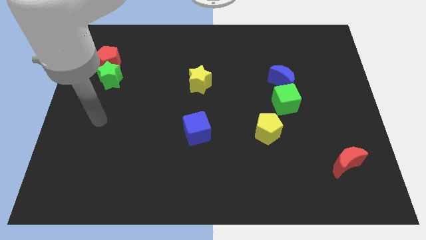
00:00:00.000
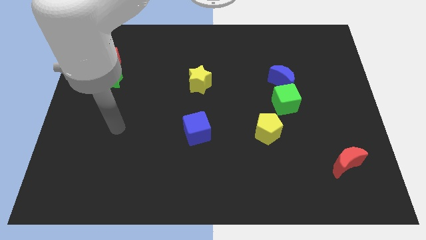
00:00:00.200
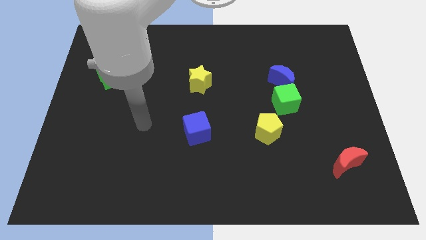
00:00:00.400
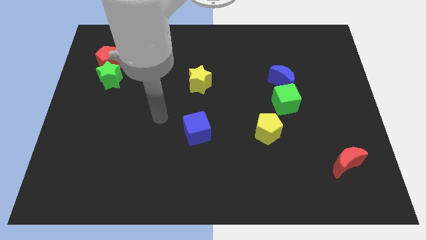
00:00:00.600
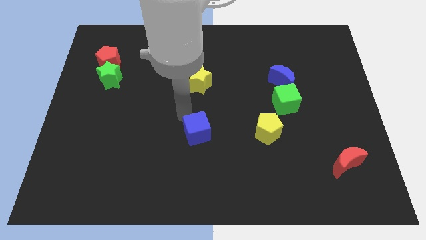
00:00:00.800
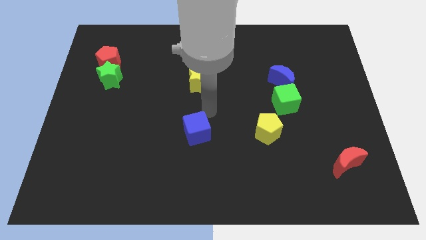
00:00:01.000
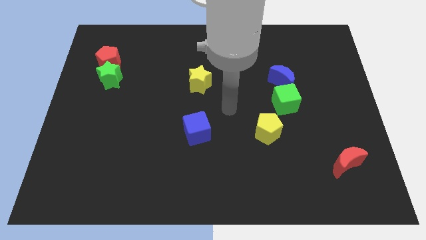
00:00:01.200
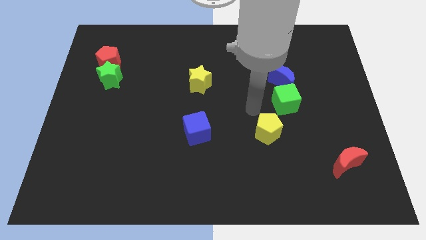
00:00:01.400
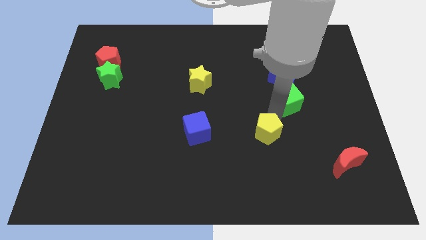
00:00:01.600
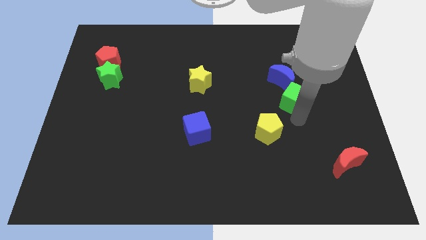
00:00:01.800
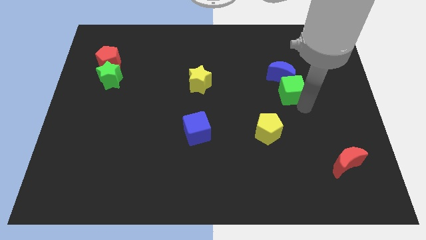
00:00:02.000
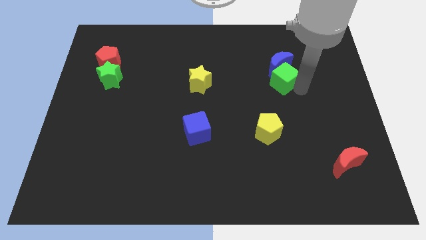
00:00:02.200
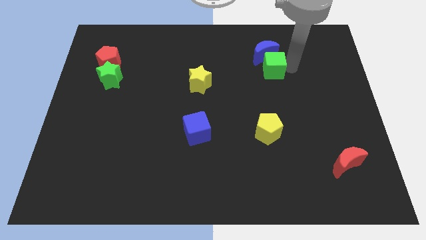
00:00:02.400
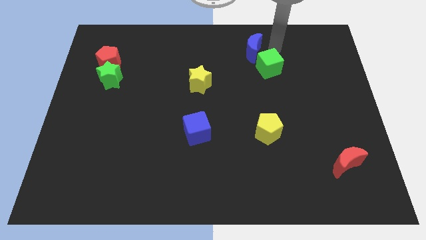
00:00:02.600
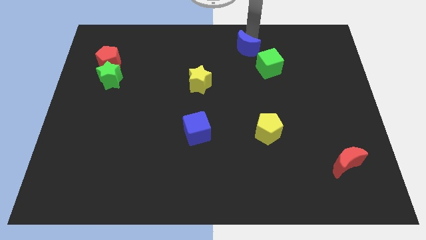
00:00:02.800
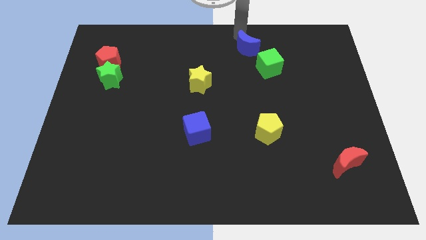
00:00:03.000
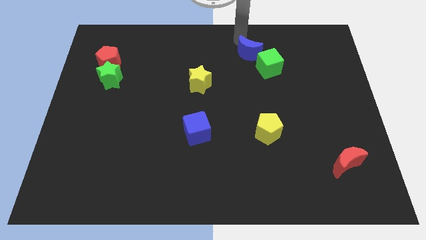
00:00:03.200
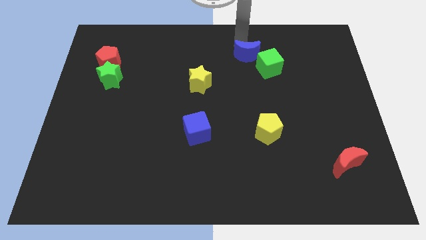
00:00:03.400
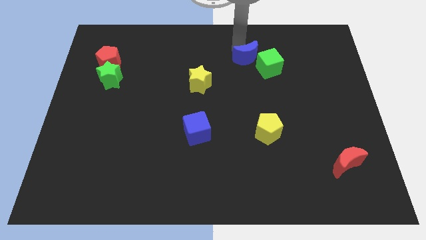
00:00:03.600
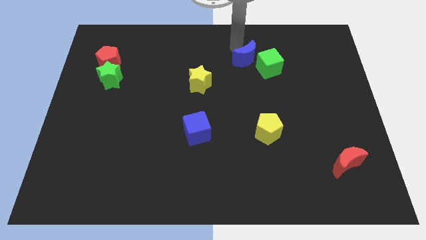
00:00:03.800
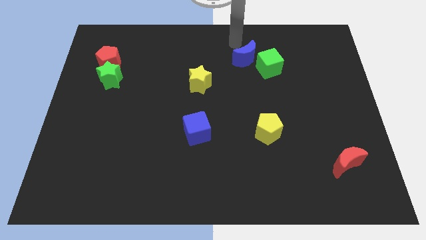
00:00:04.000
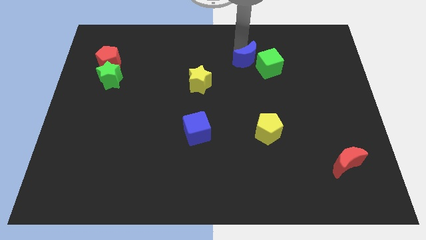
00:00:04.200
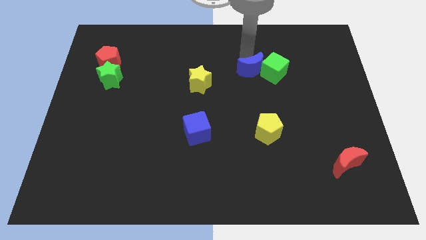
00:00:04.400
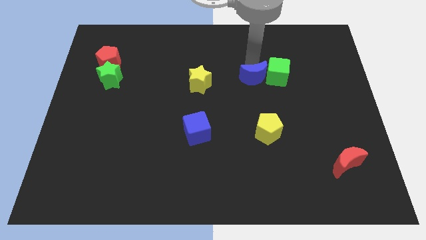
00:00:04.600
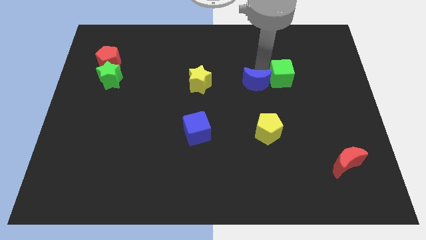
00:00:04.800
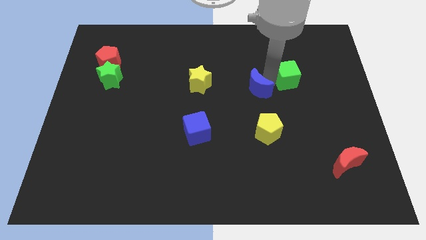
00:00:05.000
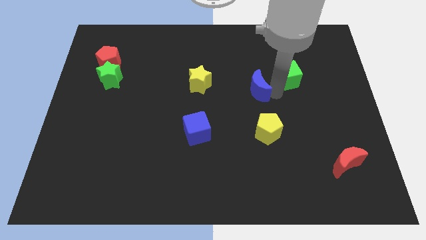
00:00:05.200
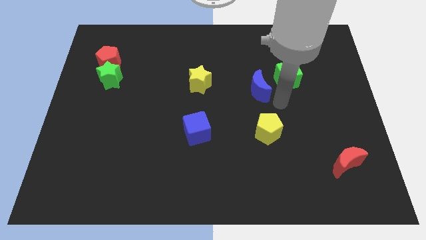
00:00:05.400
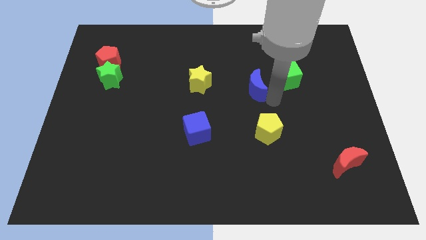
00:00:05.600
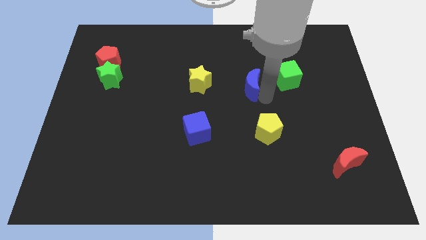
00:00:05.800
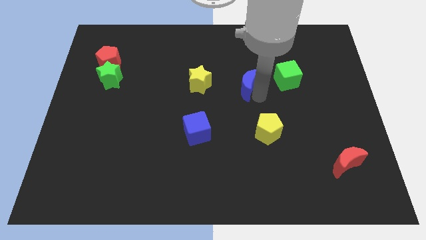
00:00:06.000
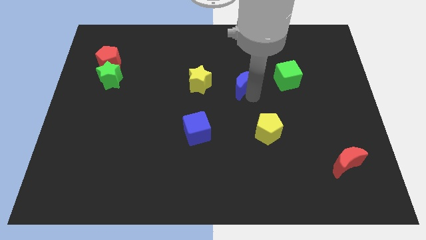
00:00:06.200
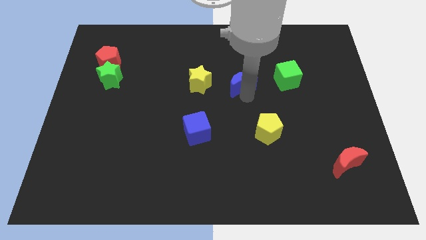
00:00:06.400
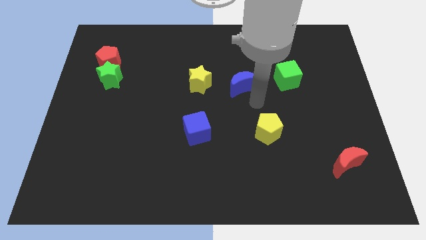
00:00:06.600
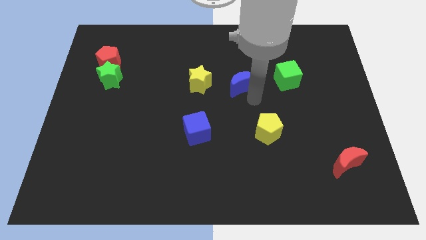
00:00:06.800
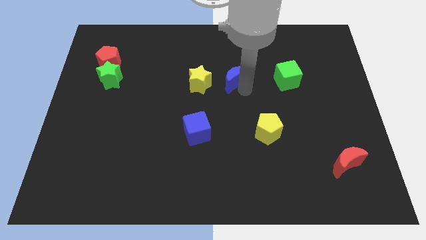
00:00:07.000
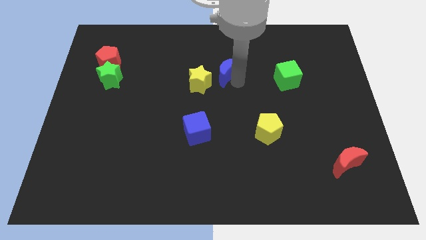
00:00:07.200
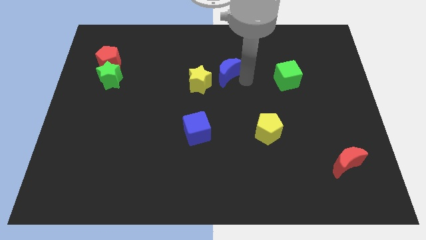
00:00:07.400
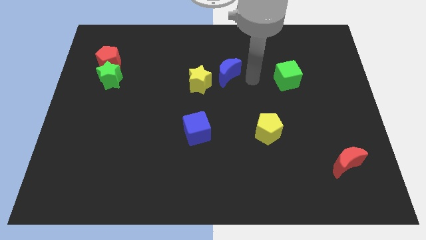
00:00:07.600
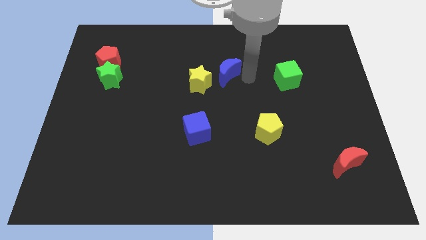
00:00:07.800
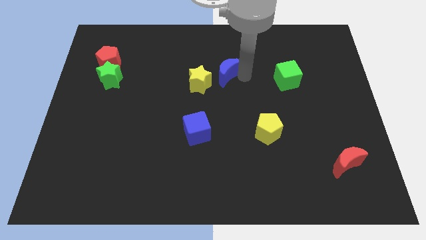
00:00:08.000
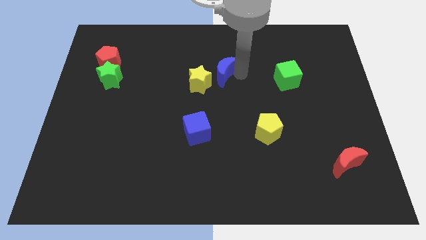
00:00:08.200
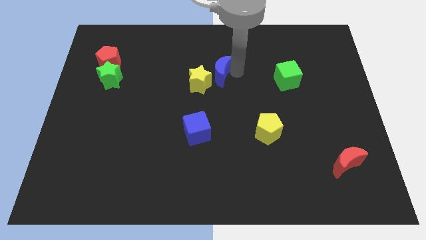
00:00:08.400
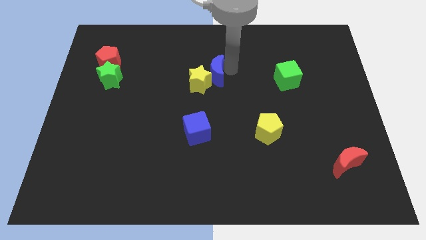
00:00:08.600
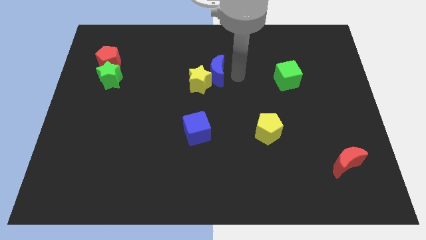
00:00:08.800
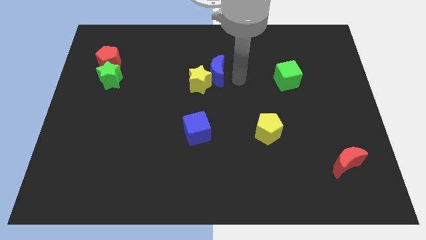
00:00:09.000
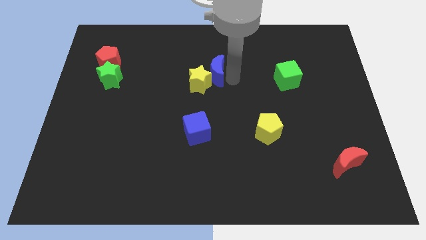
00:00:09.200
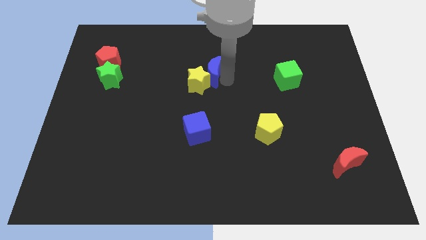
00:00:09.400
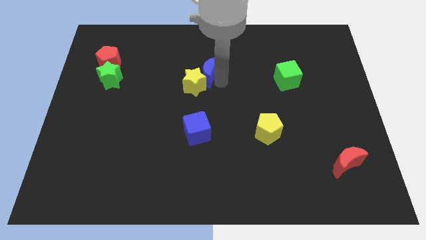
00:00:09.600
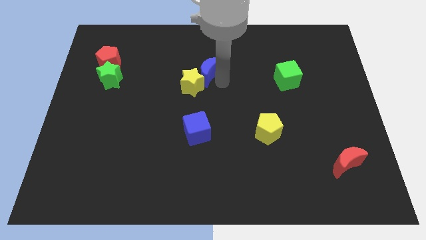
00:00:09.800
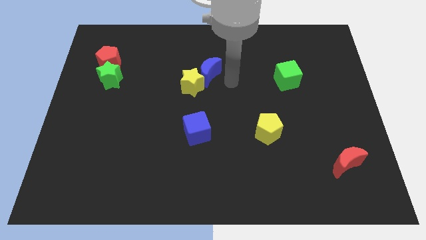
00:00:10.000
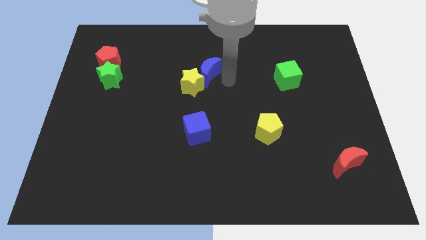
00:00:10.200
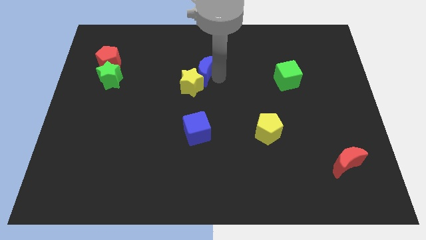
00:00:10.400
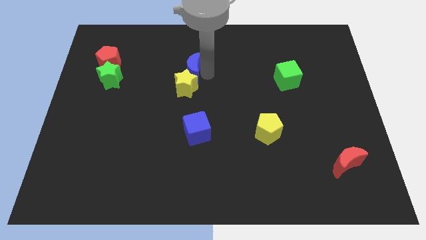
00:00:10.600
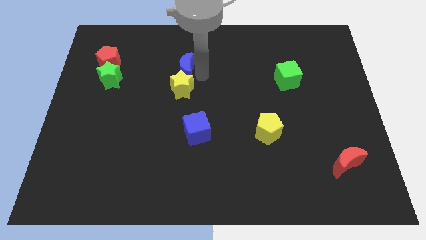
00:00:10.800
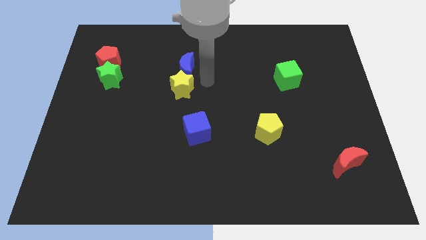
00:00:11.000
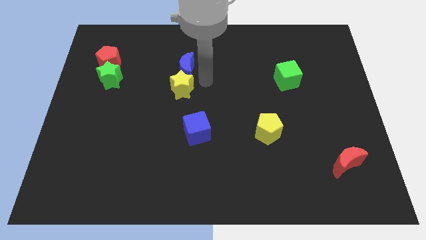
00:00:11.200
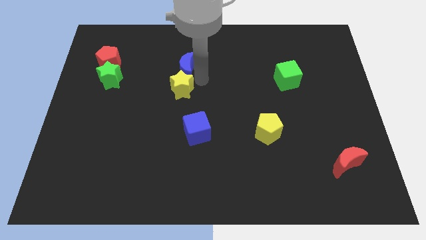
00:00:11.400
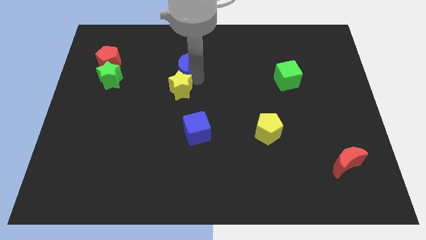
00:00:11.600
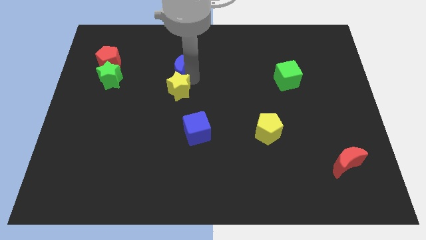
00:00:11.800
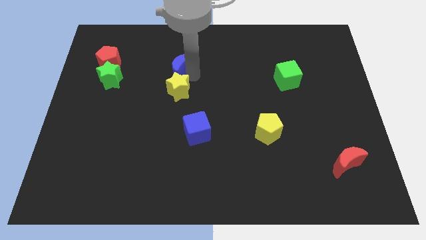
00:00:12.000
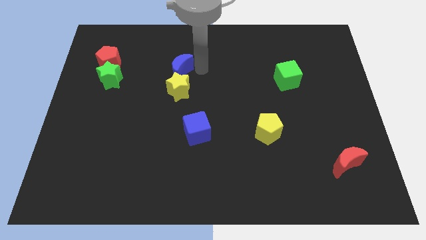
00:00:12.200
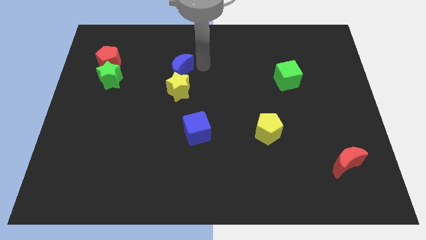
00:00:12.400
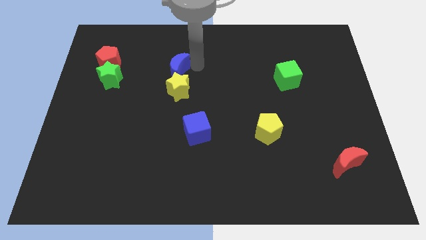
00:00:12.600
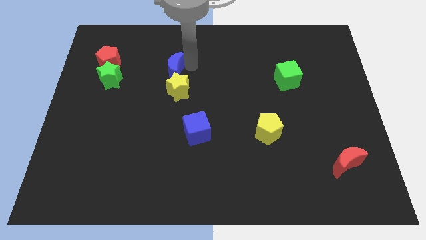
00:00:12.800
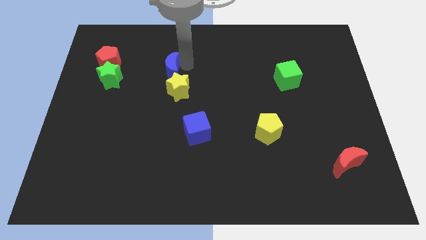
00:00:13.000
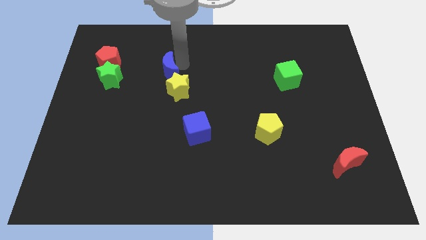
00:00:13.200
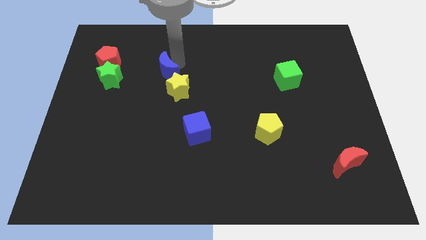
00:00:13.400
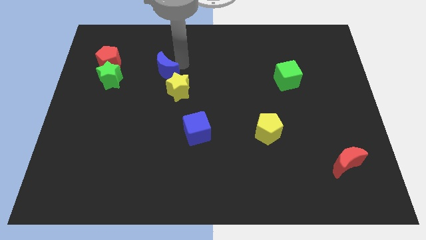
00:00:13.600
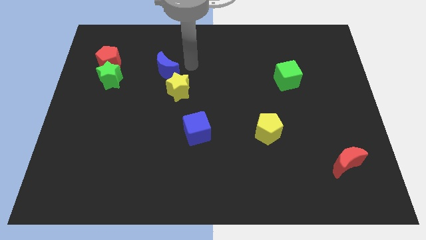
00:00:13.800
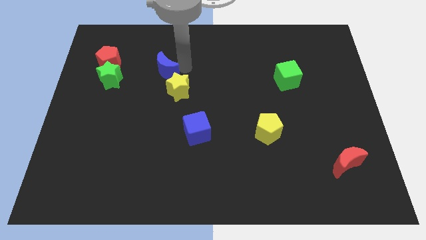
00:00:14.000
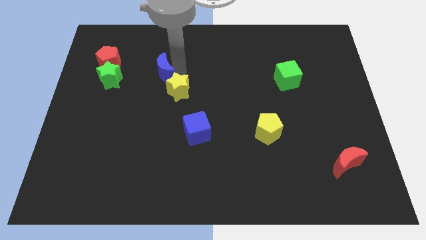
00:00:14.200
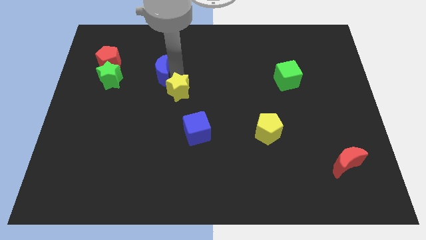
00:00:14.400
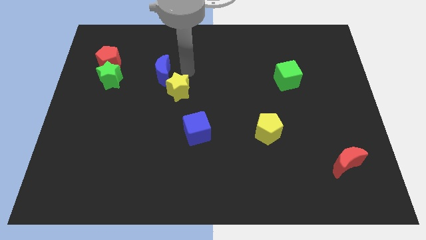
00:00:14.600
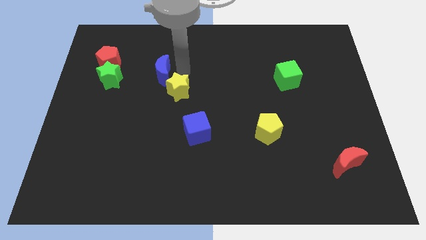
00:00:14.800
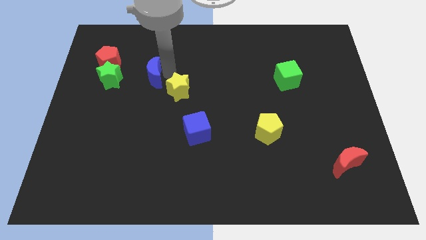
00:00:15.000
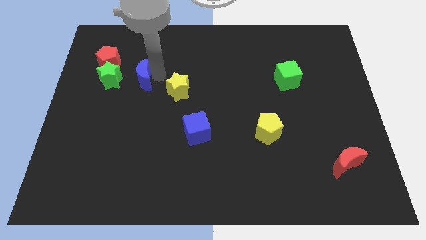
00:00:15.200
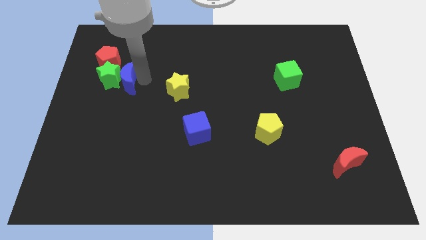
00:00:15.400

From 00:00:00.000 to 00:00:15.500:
push the blue moon towards the green star
